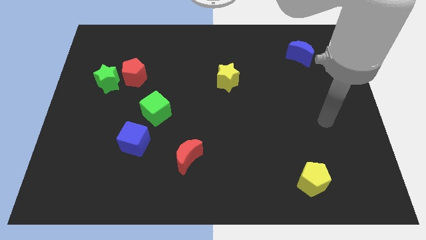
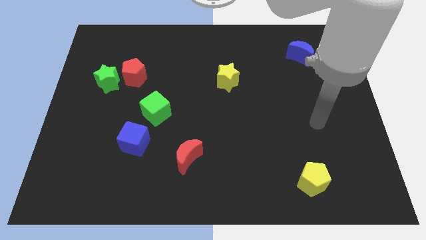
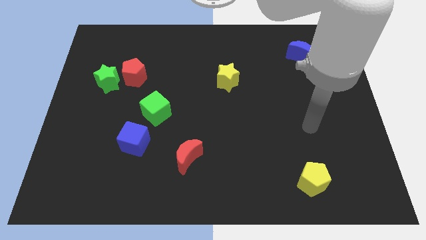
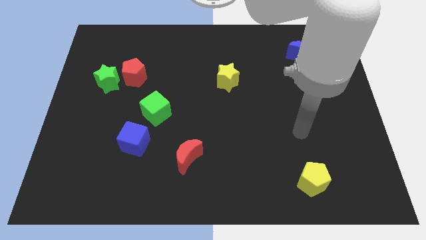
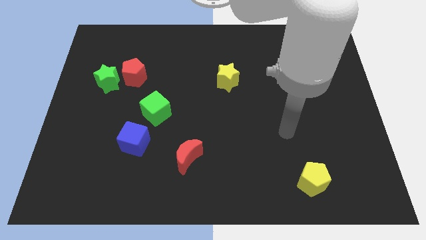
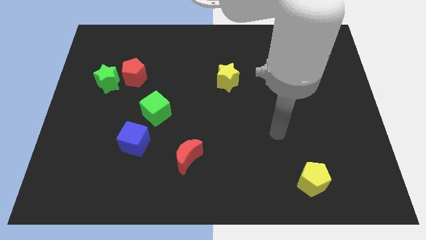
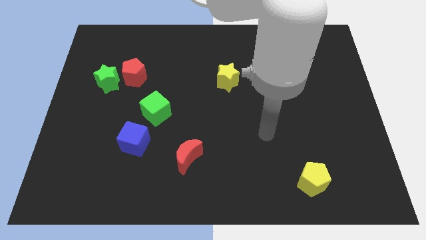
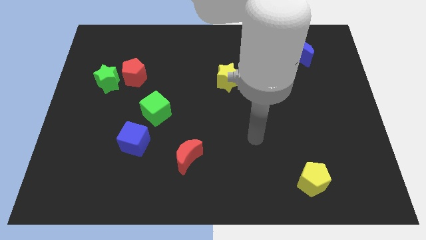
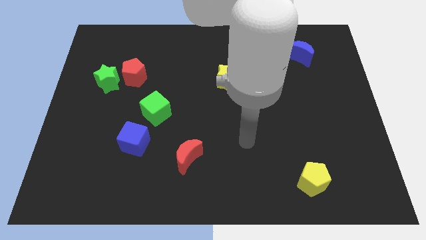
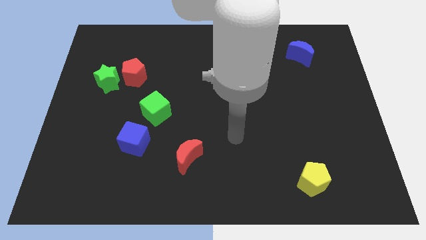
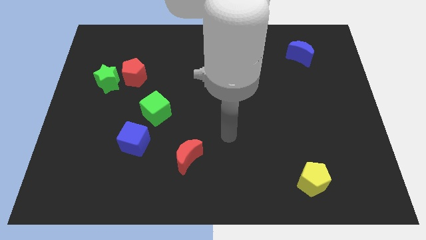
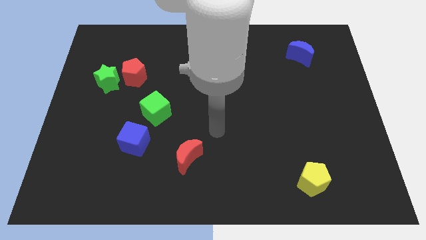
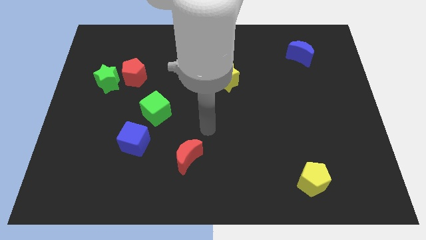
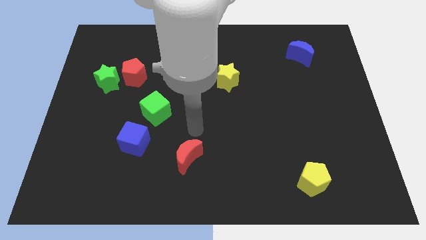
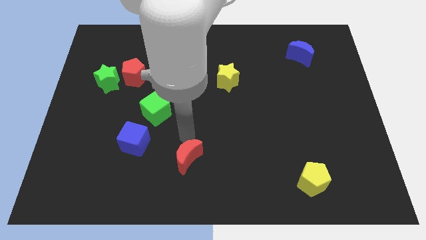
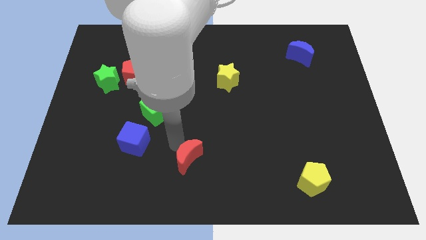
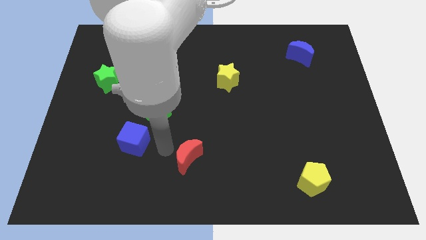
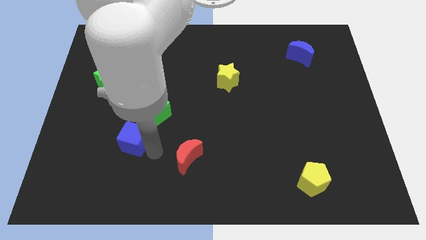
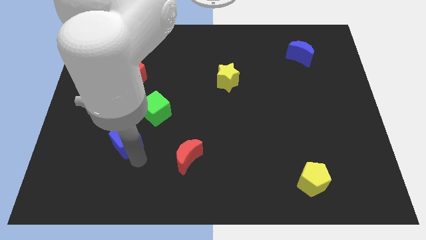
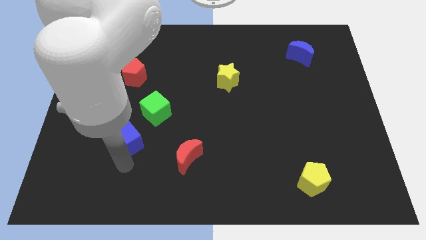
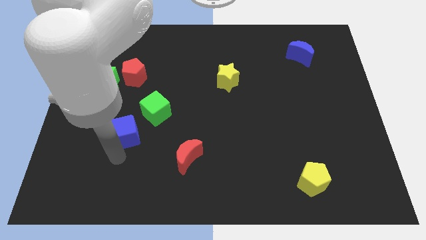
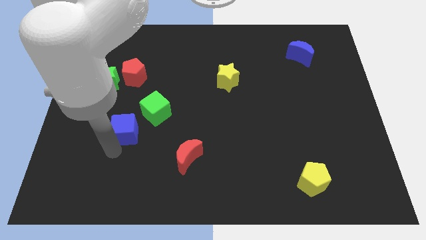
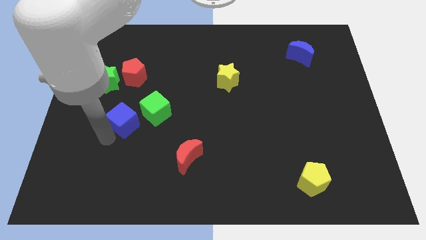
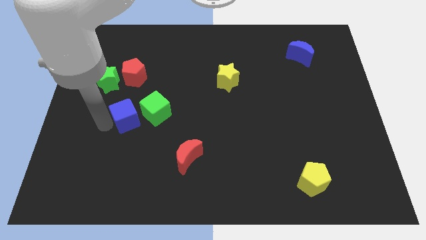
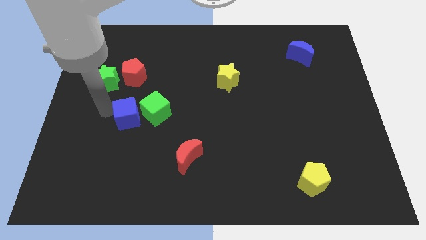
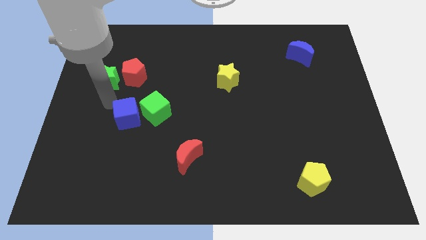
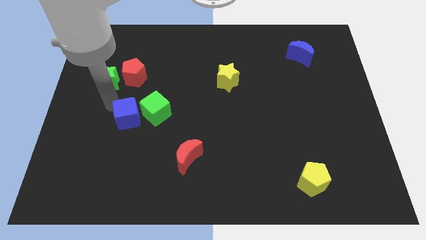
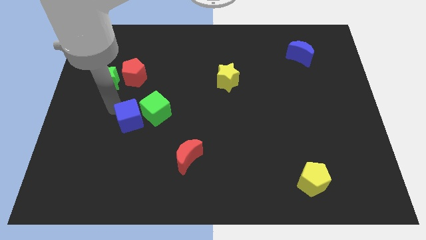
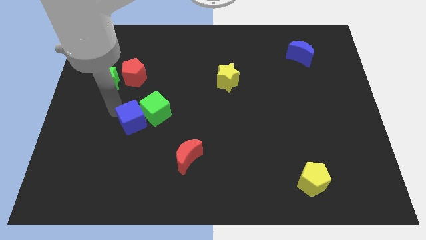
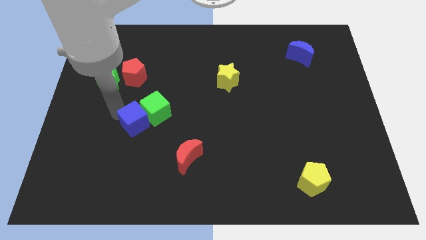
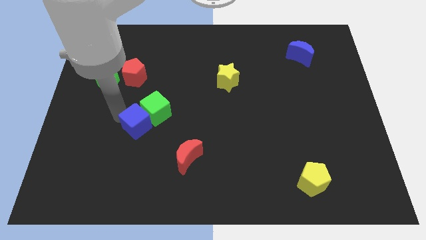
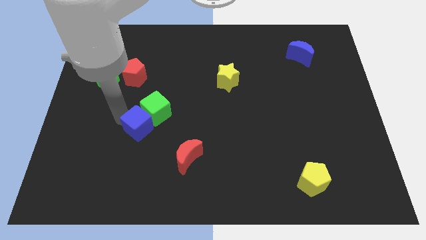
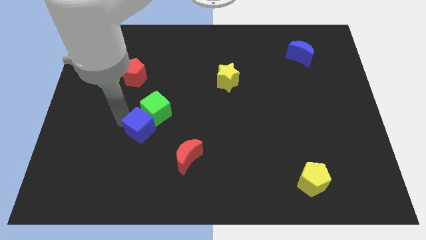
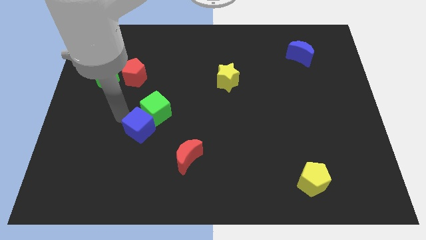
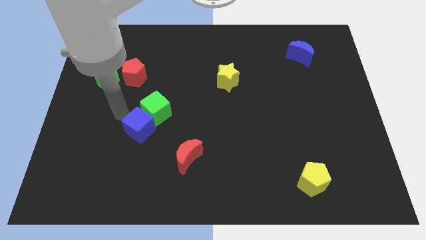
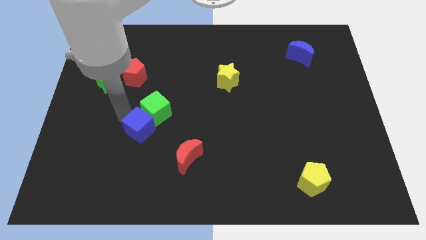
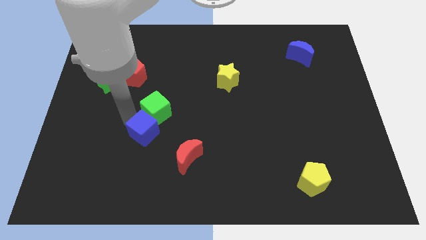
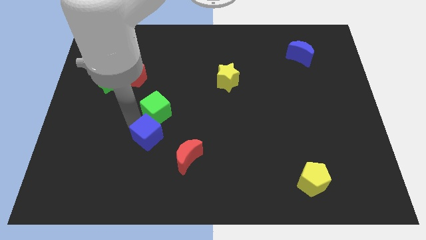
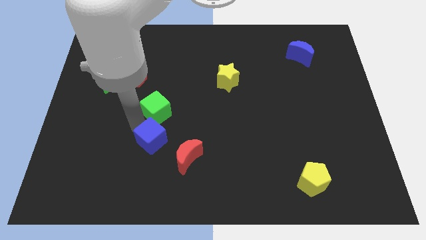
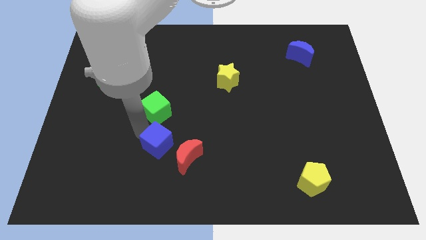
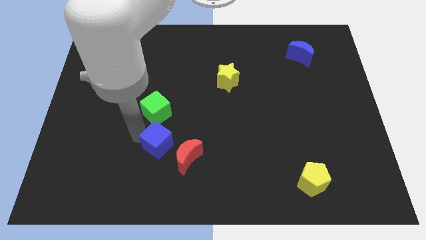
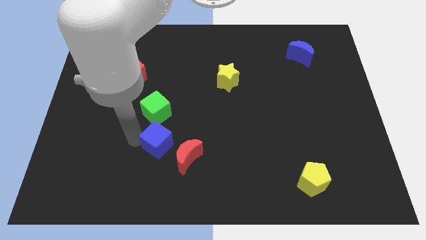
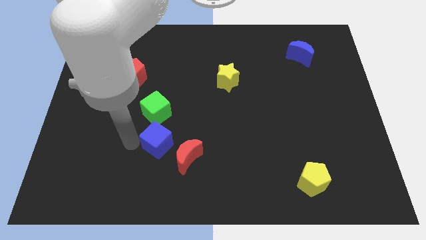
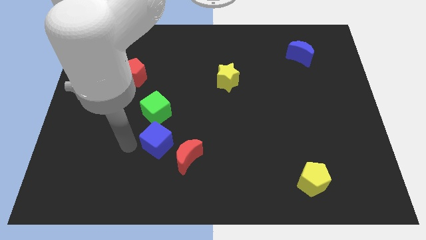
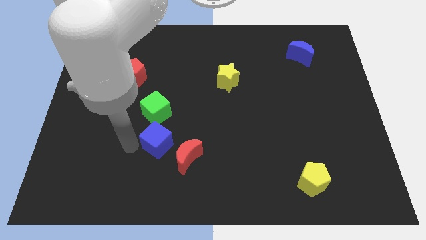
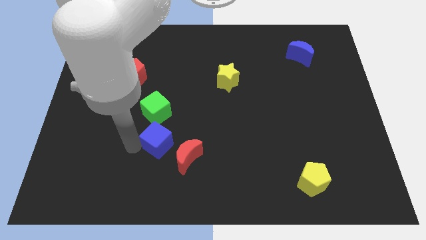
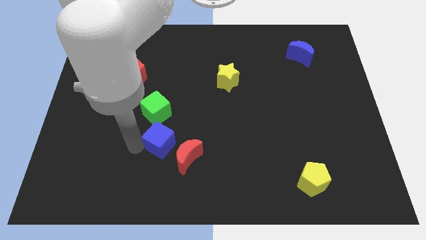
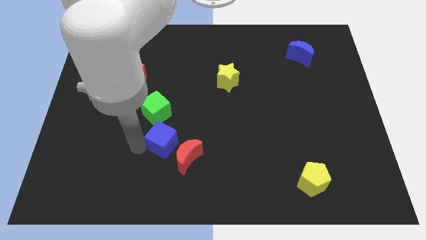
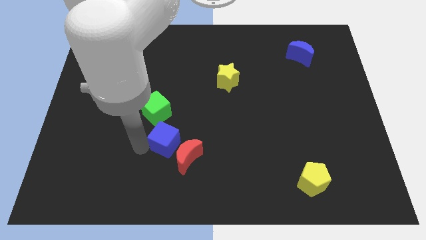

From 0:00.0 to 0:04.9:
slightly move the blue cube right

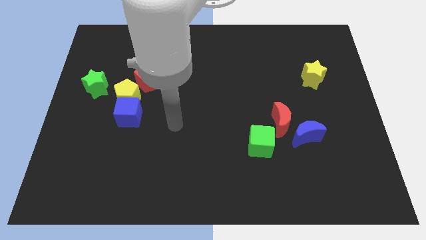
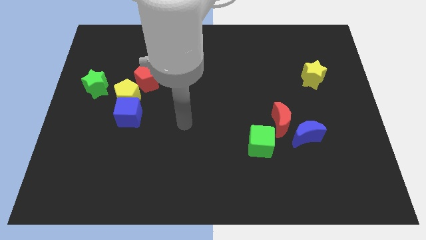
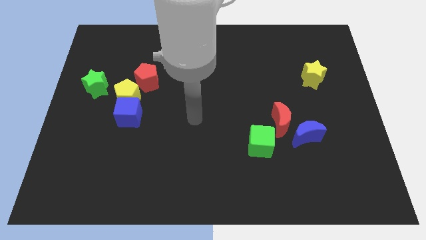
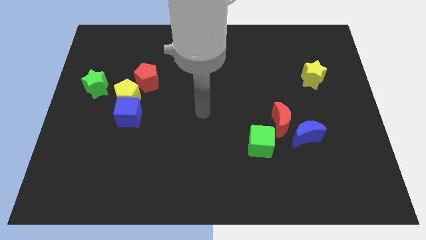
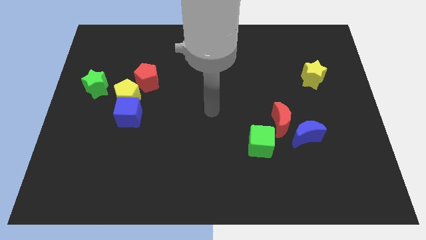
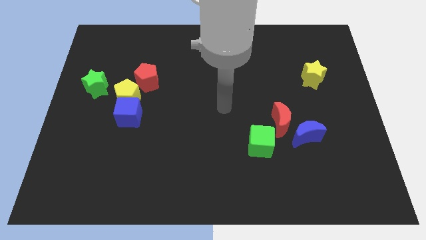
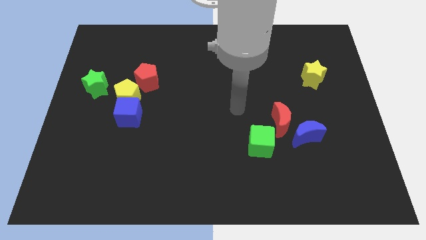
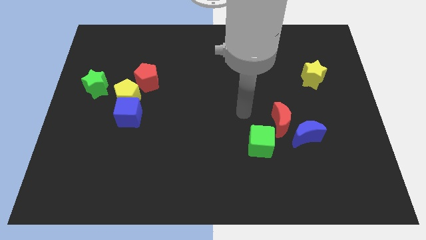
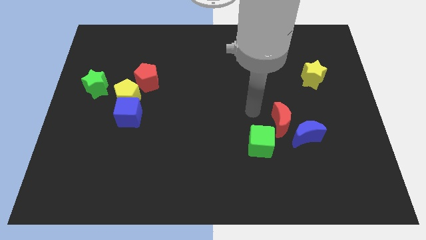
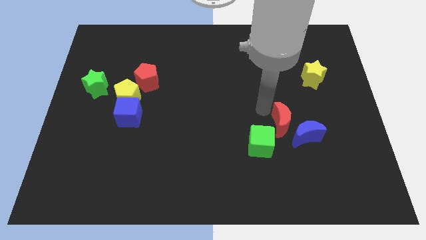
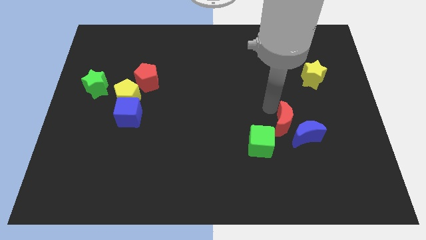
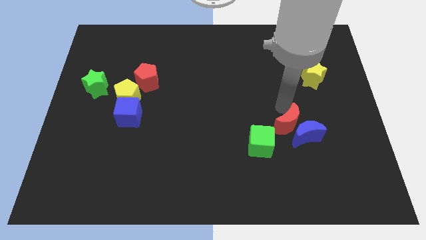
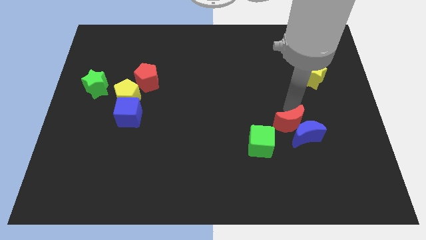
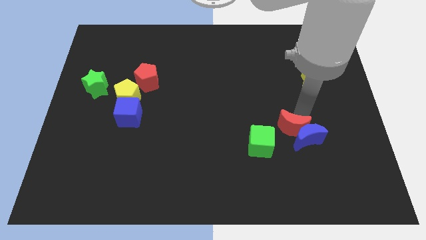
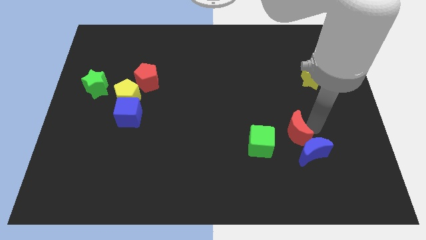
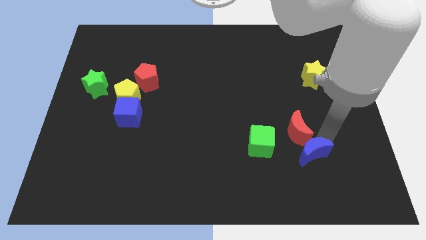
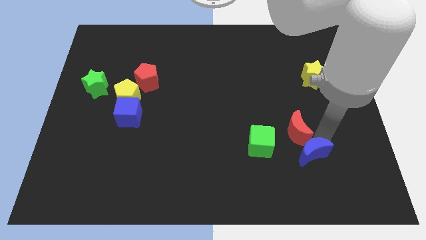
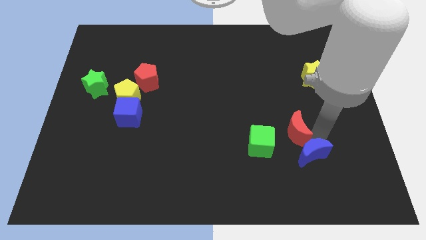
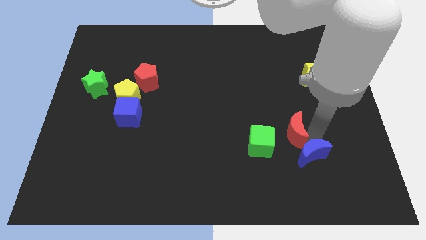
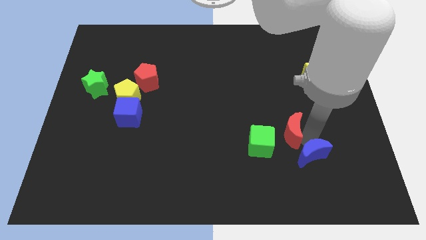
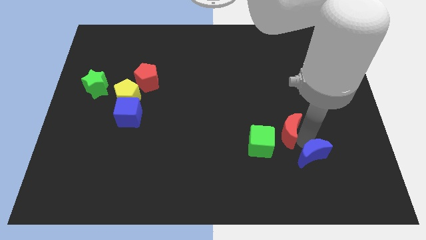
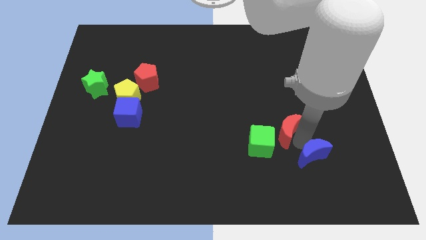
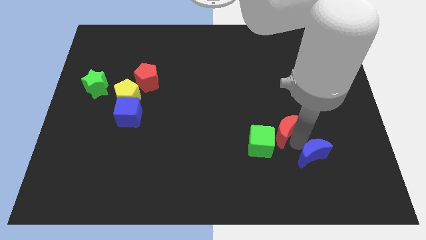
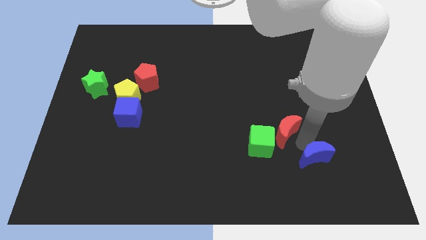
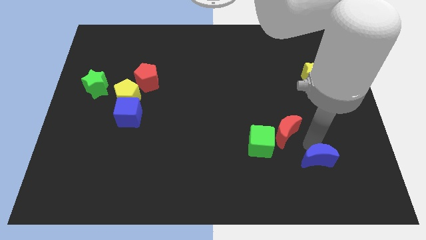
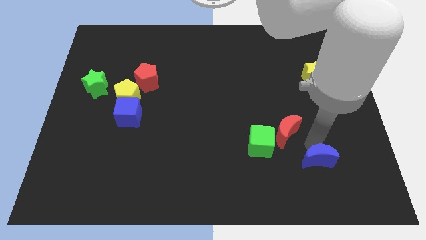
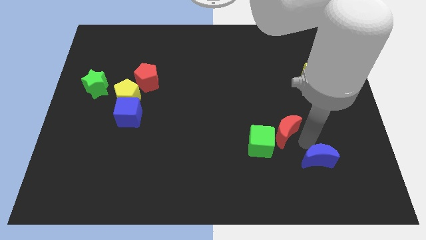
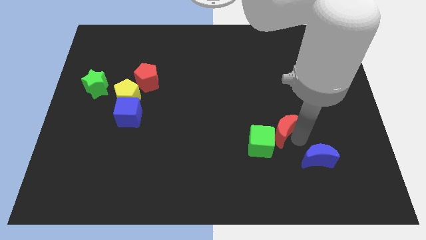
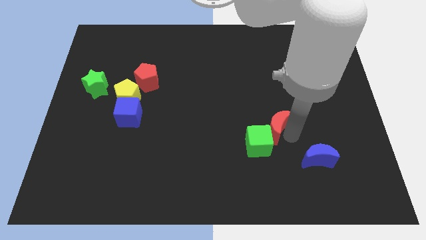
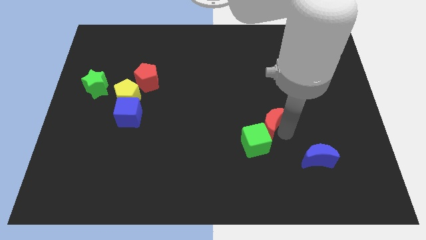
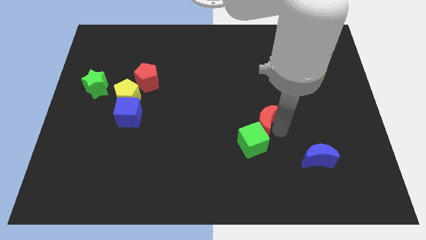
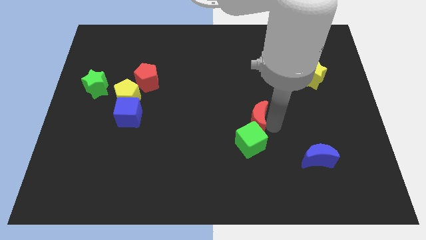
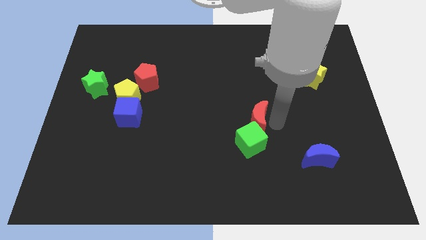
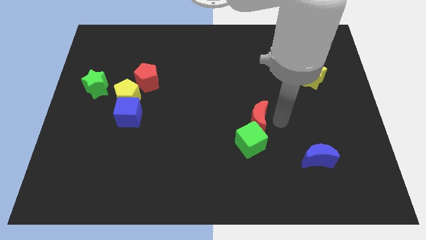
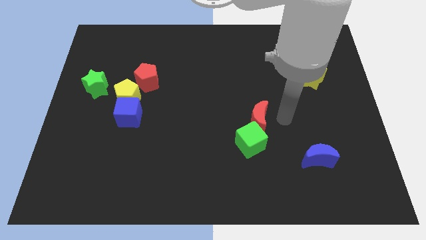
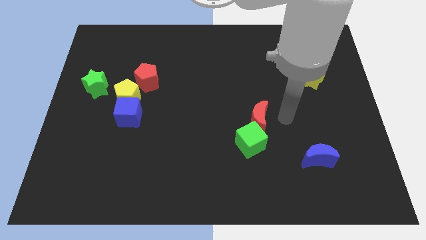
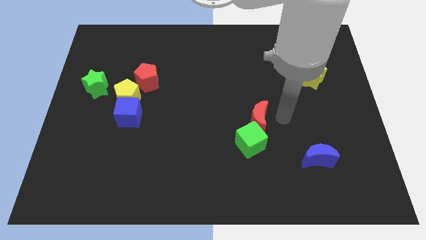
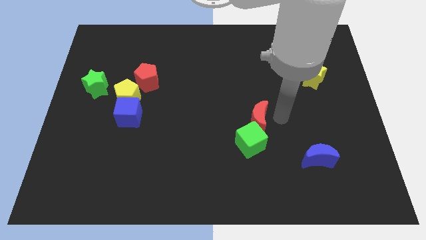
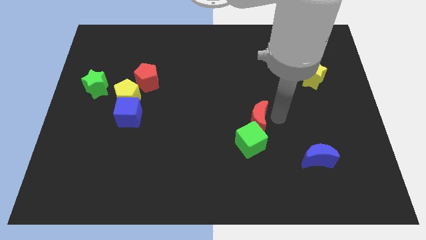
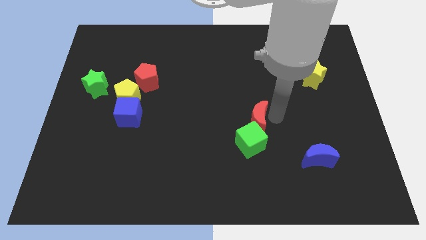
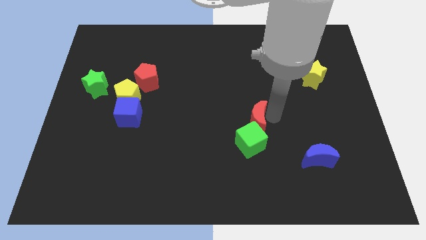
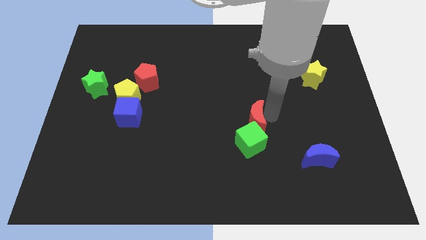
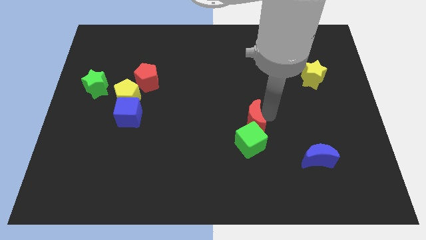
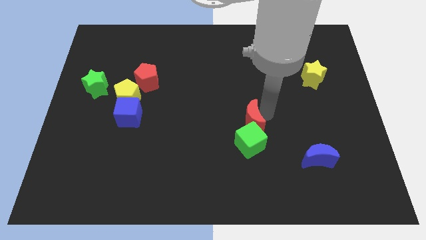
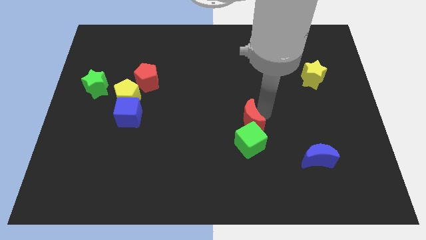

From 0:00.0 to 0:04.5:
push the red moon to the left a little
